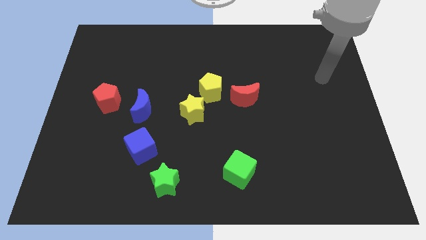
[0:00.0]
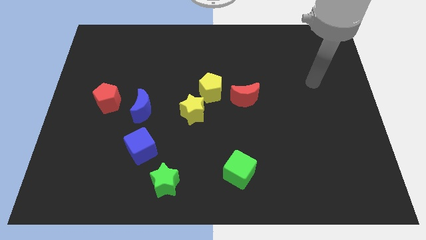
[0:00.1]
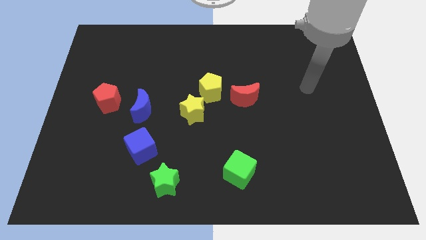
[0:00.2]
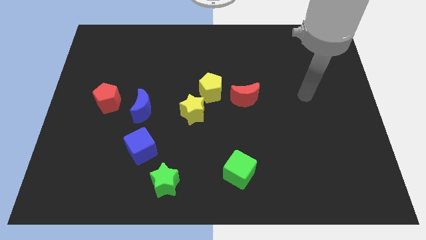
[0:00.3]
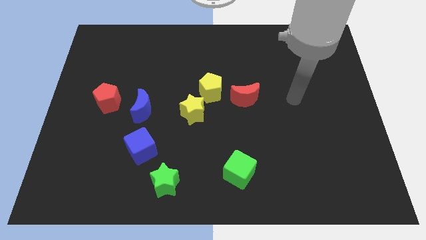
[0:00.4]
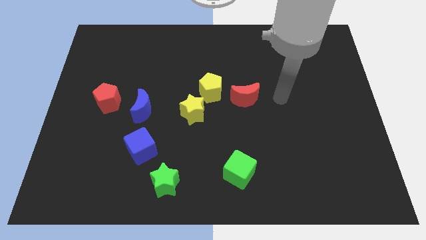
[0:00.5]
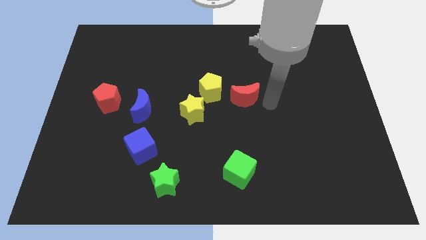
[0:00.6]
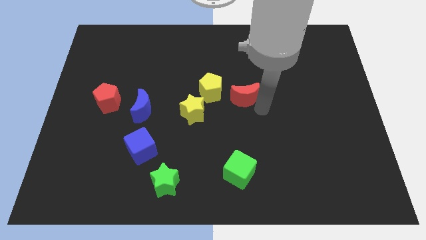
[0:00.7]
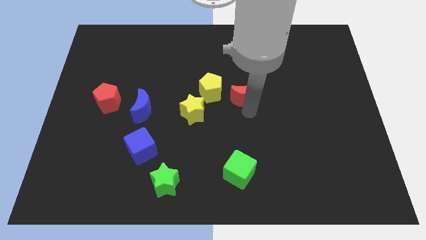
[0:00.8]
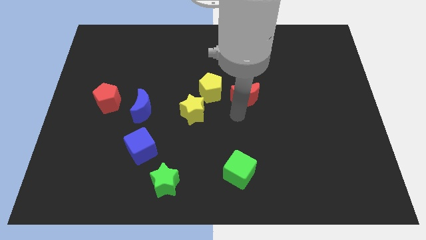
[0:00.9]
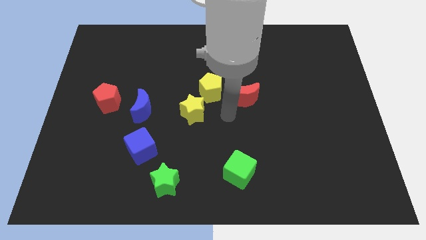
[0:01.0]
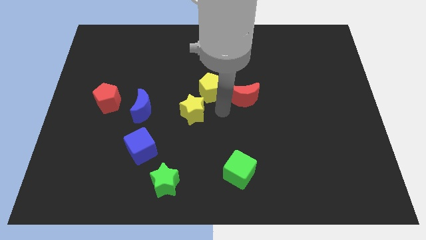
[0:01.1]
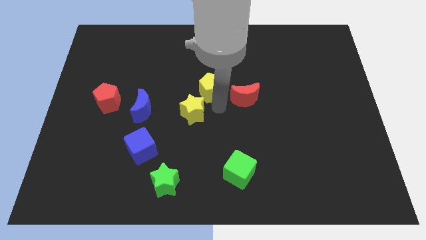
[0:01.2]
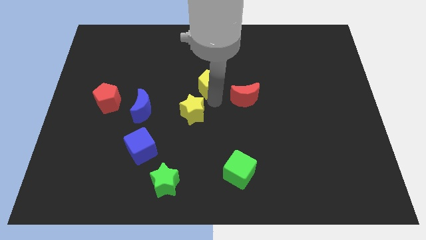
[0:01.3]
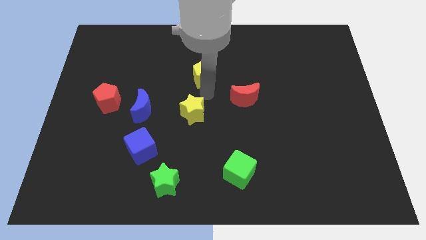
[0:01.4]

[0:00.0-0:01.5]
move the yellow star away from the yellow pentagon

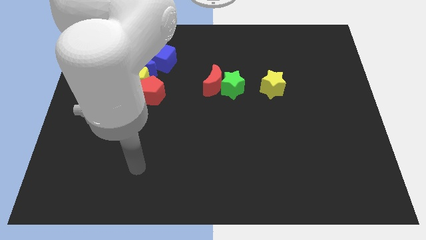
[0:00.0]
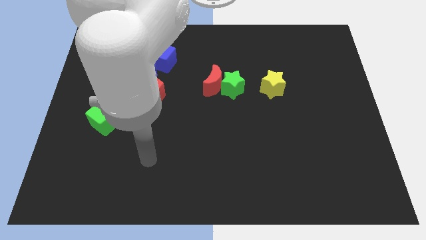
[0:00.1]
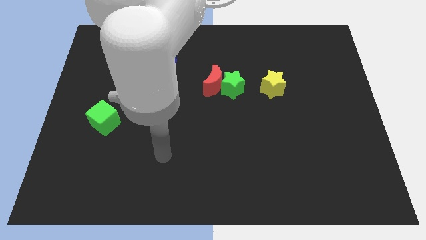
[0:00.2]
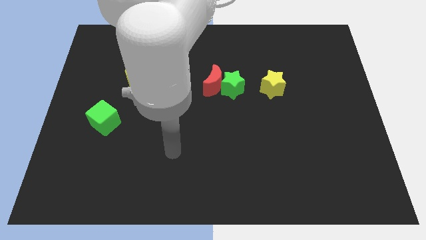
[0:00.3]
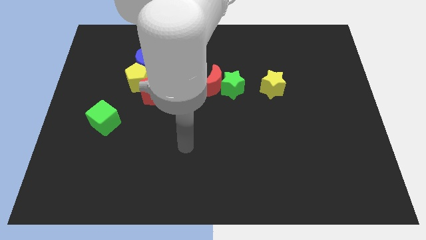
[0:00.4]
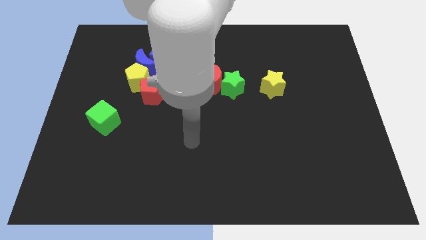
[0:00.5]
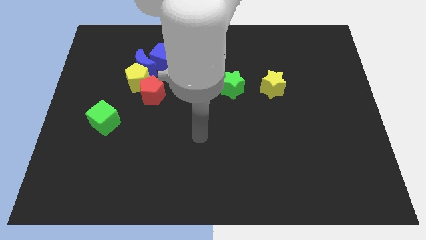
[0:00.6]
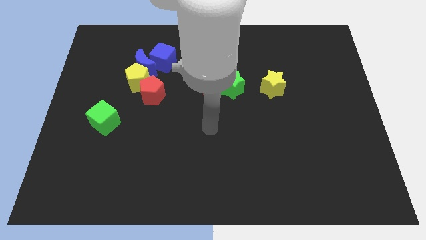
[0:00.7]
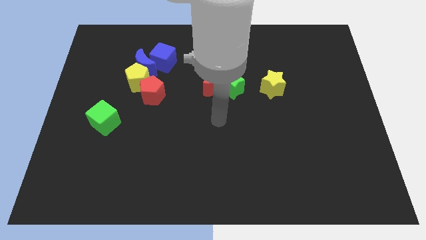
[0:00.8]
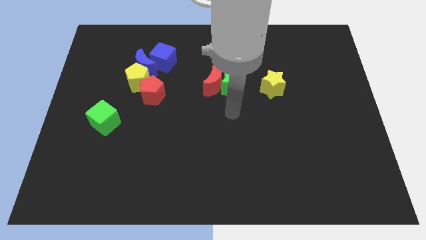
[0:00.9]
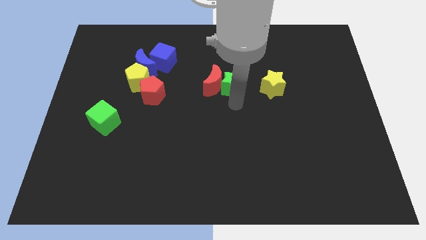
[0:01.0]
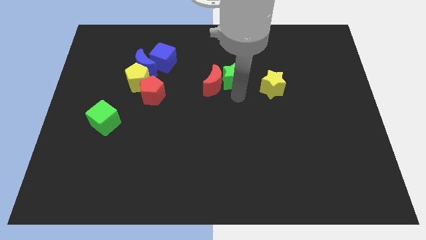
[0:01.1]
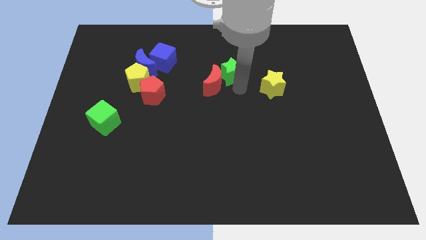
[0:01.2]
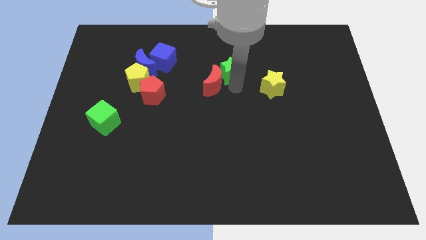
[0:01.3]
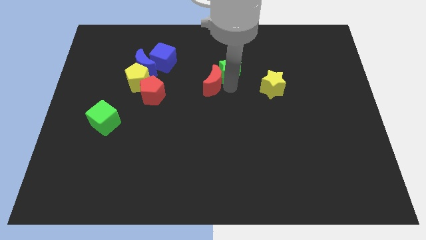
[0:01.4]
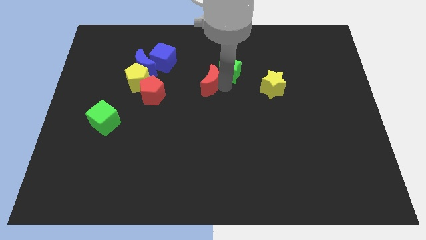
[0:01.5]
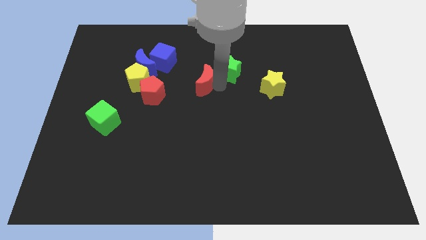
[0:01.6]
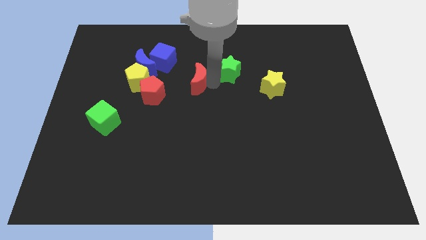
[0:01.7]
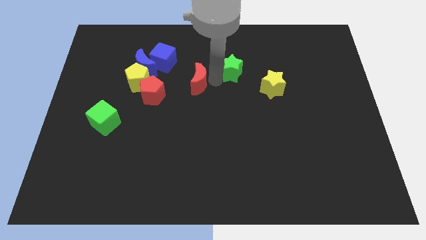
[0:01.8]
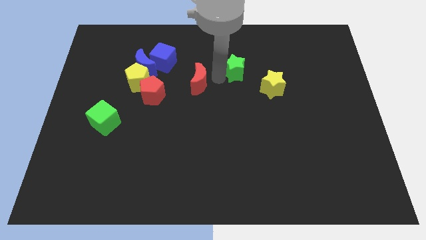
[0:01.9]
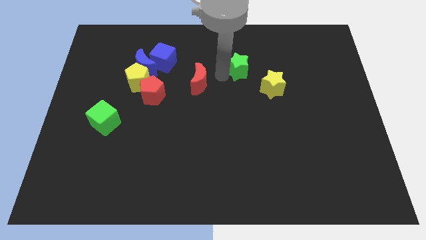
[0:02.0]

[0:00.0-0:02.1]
move the red moon away from the green star

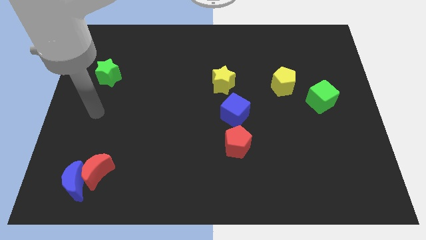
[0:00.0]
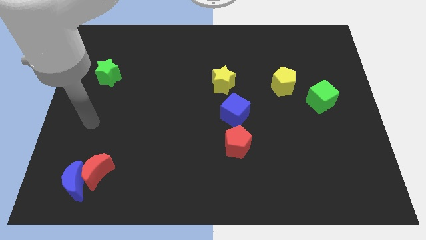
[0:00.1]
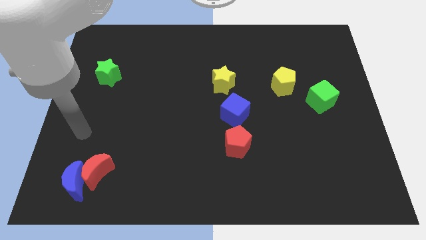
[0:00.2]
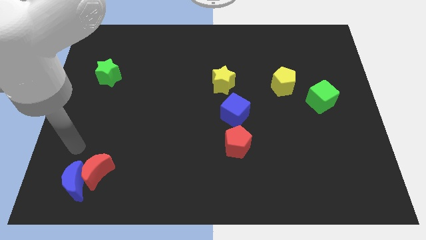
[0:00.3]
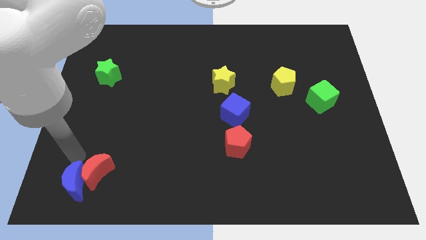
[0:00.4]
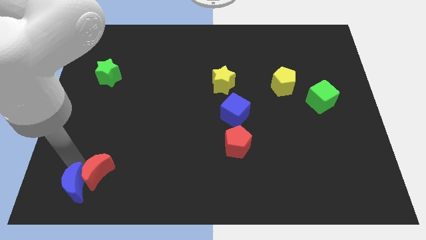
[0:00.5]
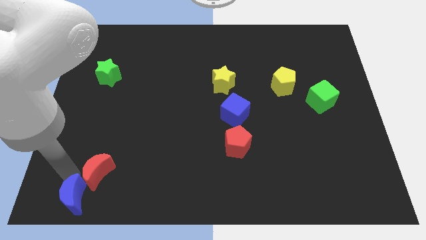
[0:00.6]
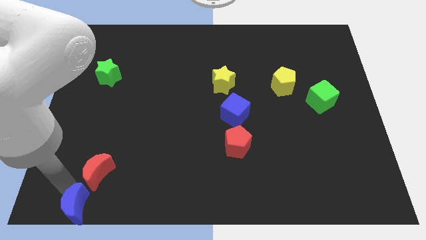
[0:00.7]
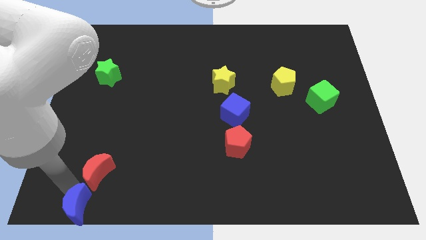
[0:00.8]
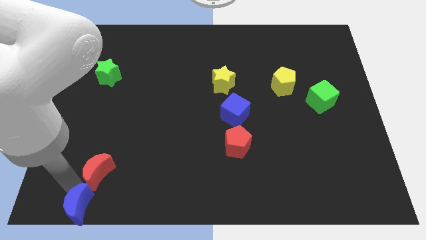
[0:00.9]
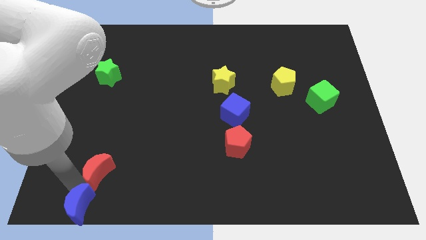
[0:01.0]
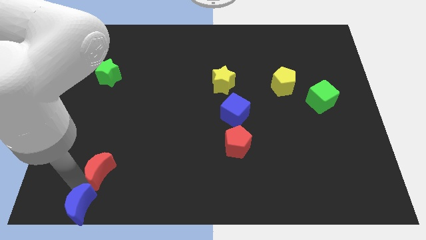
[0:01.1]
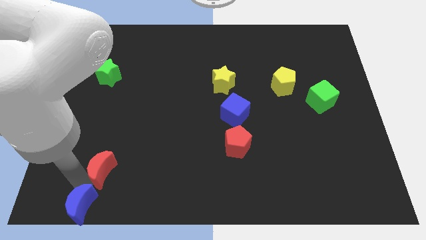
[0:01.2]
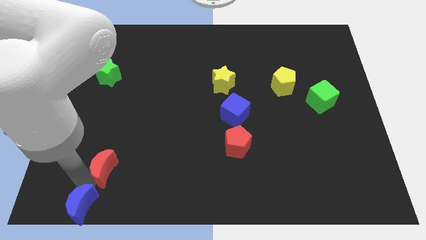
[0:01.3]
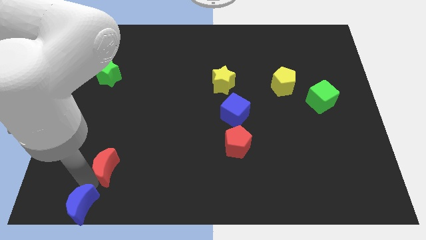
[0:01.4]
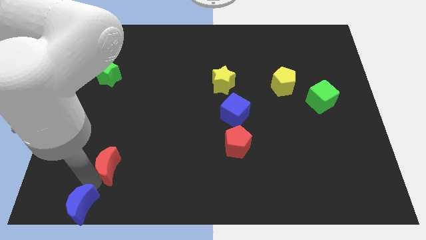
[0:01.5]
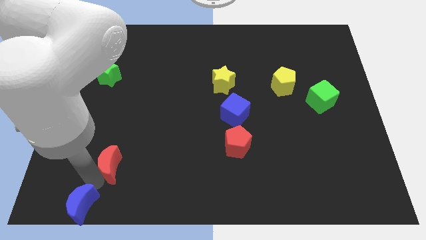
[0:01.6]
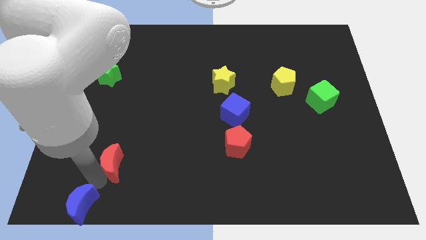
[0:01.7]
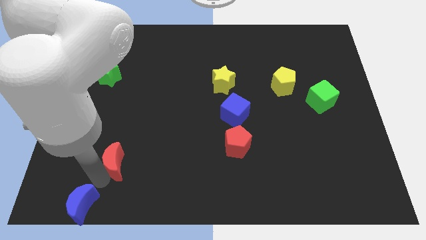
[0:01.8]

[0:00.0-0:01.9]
move the red moon away from the blue moon

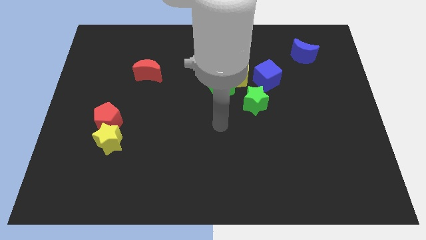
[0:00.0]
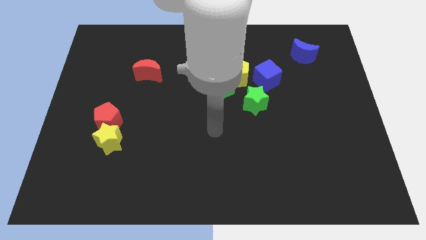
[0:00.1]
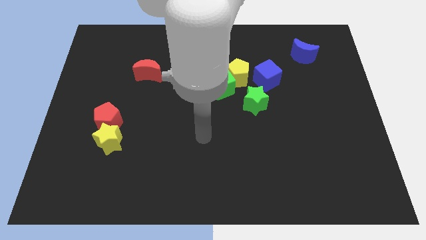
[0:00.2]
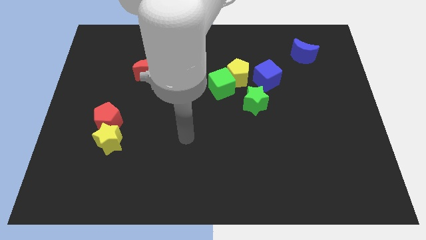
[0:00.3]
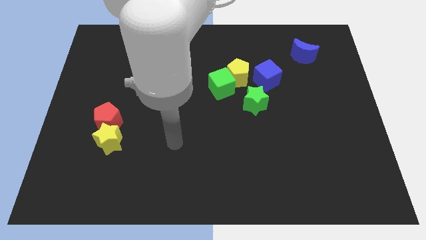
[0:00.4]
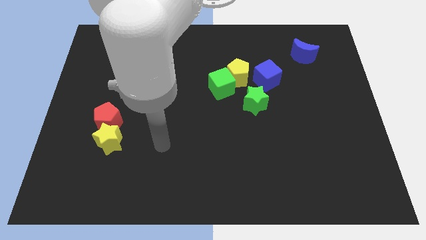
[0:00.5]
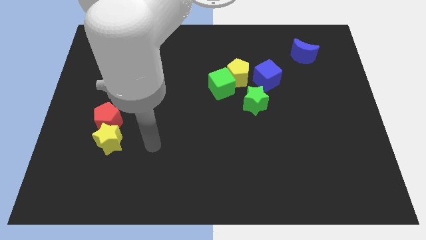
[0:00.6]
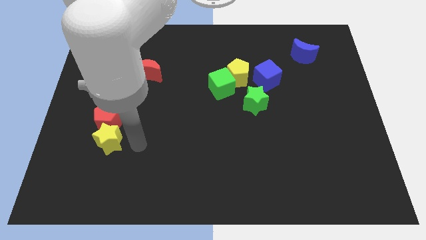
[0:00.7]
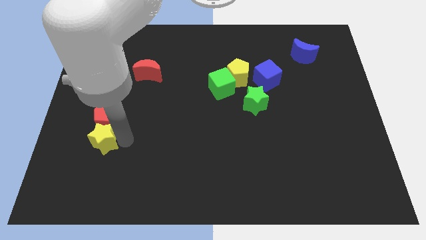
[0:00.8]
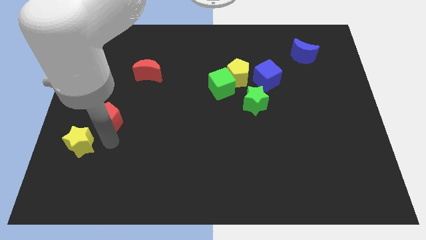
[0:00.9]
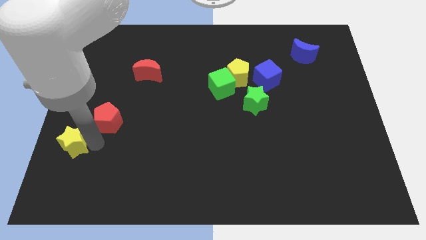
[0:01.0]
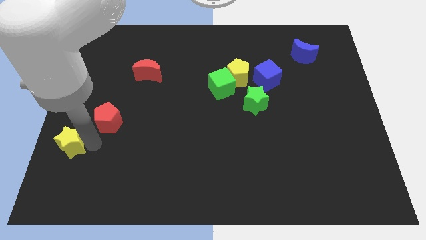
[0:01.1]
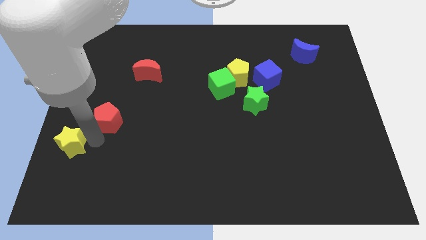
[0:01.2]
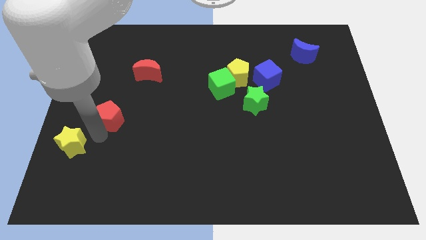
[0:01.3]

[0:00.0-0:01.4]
move the red pentagon away from the yellow star

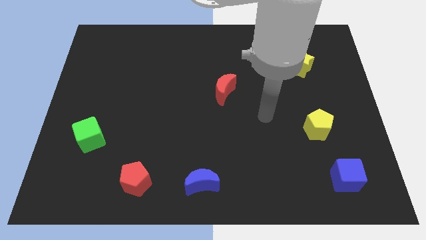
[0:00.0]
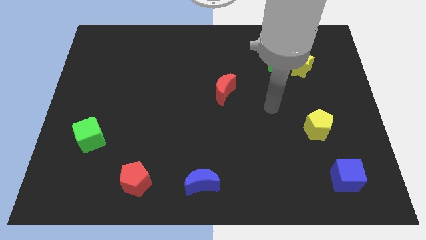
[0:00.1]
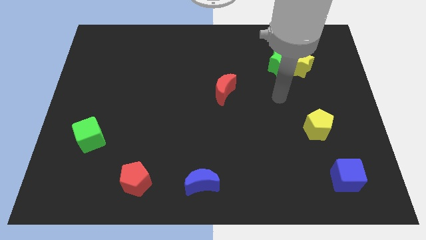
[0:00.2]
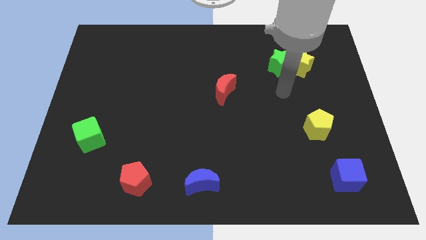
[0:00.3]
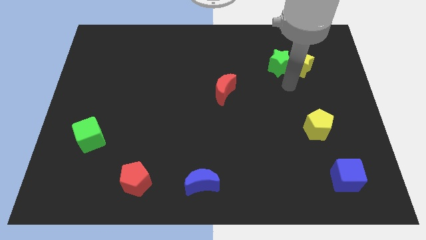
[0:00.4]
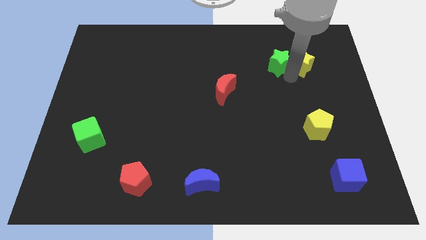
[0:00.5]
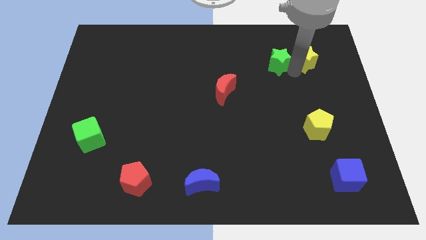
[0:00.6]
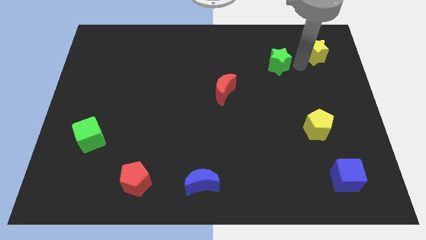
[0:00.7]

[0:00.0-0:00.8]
move the green star away from the yellow star

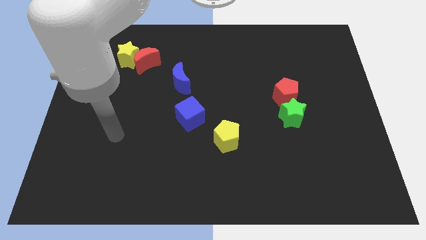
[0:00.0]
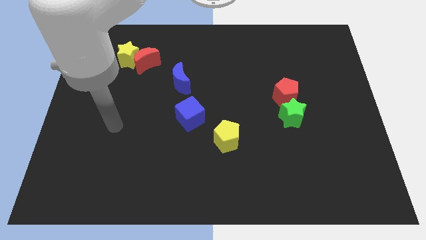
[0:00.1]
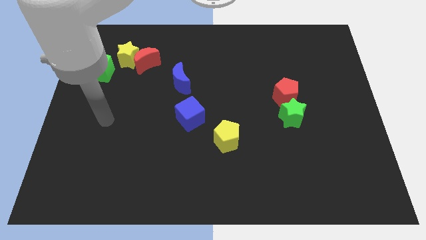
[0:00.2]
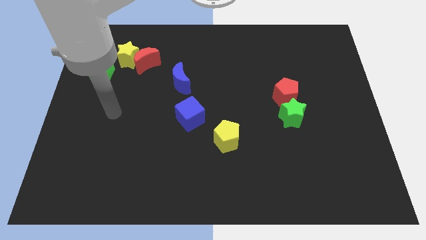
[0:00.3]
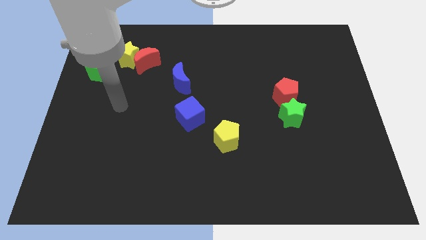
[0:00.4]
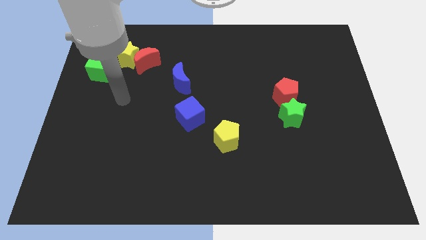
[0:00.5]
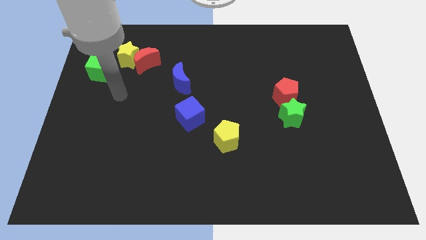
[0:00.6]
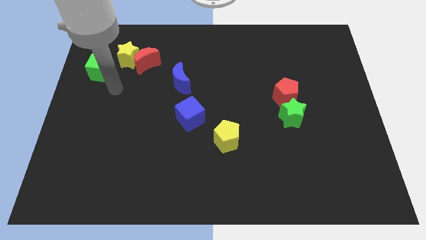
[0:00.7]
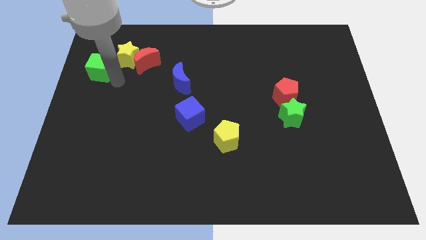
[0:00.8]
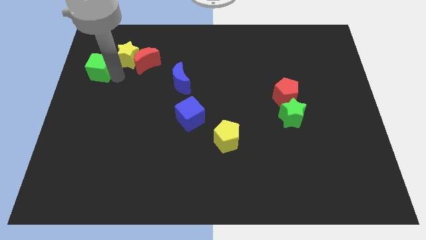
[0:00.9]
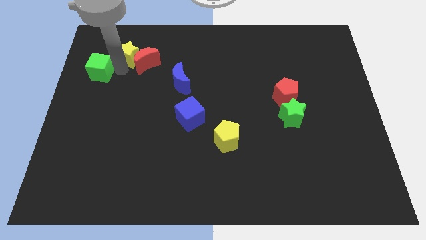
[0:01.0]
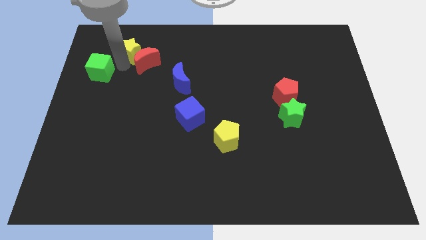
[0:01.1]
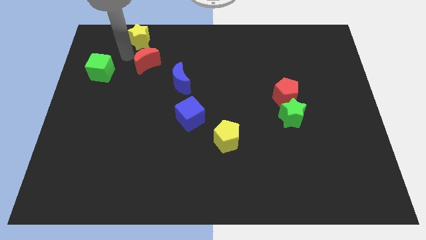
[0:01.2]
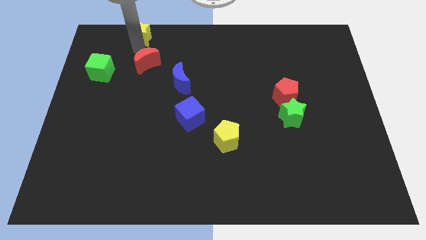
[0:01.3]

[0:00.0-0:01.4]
pull the red moon apart from the yellow star

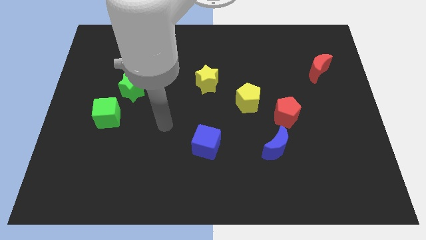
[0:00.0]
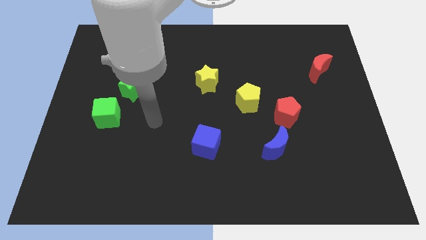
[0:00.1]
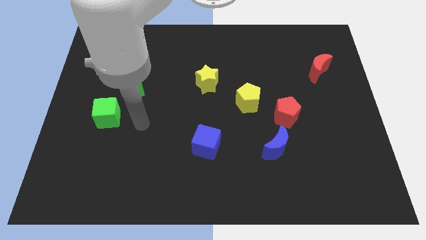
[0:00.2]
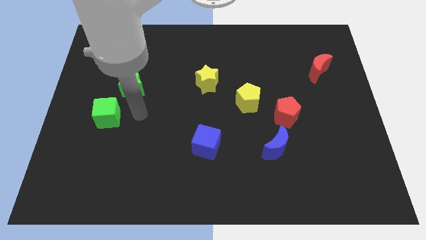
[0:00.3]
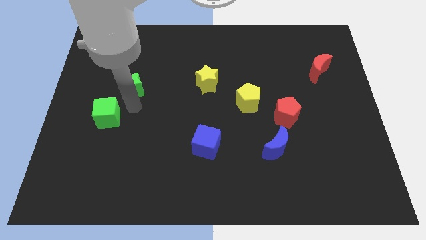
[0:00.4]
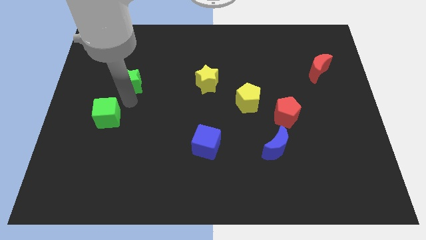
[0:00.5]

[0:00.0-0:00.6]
move the green cube away from the green star
